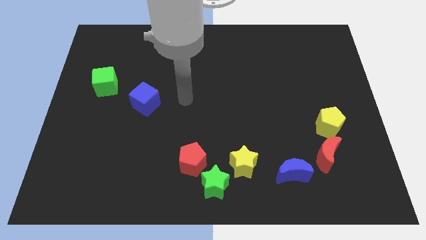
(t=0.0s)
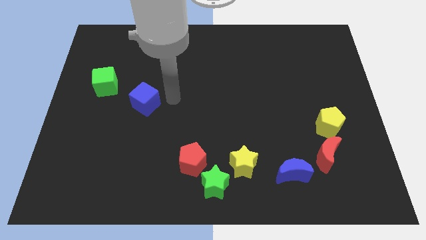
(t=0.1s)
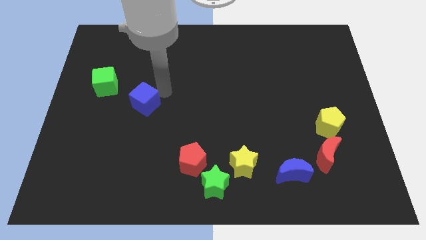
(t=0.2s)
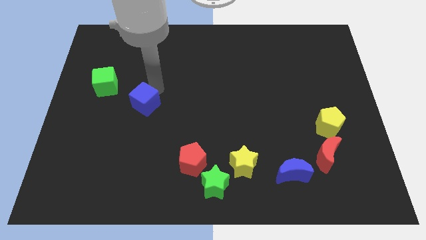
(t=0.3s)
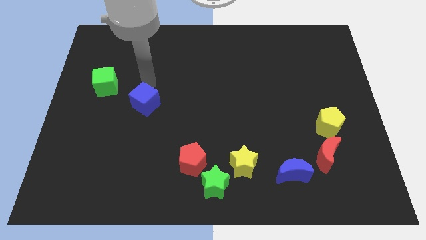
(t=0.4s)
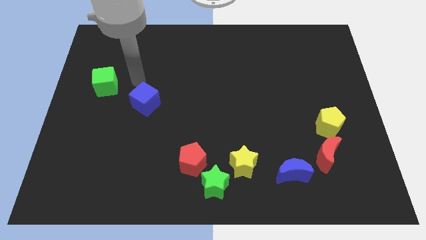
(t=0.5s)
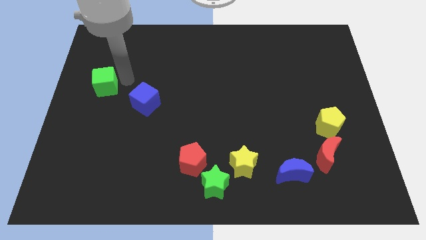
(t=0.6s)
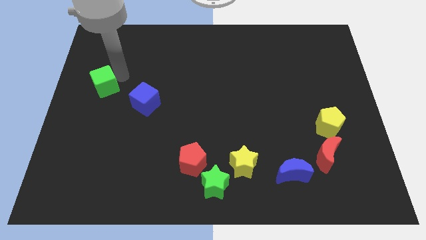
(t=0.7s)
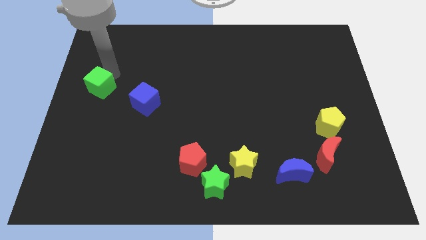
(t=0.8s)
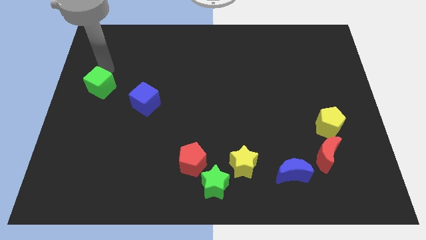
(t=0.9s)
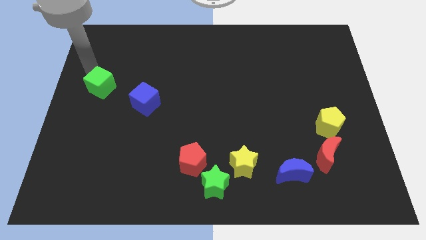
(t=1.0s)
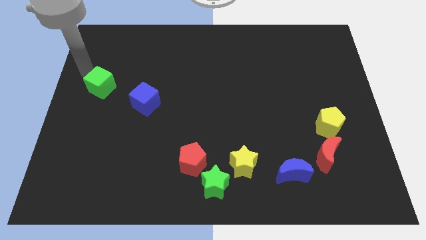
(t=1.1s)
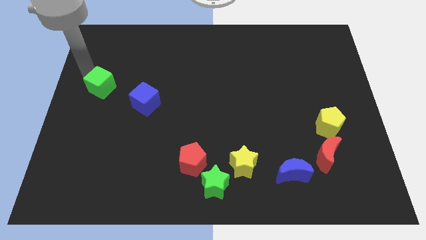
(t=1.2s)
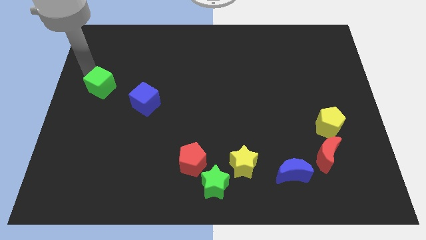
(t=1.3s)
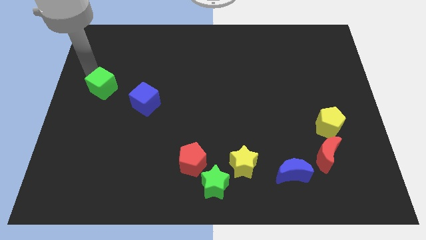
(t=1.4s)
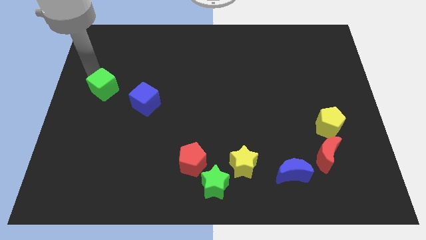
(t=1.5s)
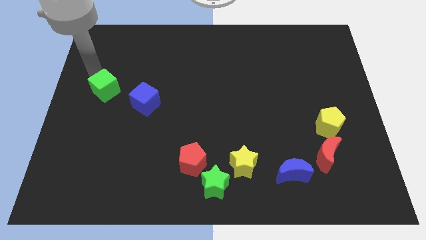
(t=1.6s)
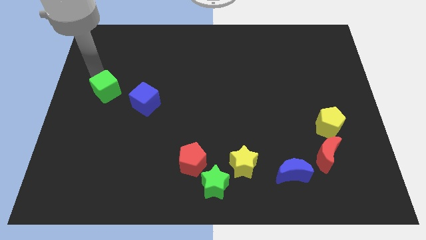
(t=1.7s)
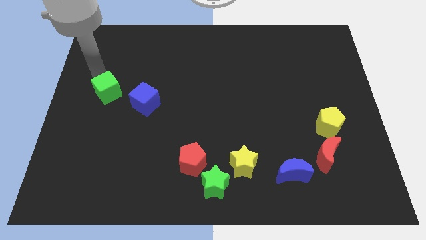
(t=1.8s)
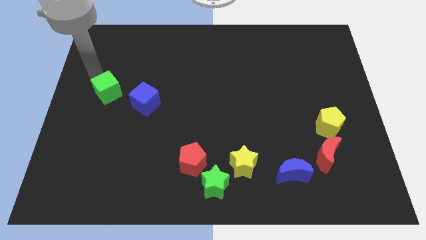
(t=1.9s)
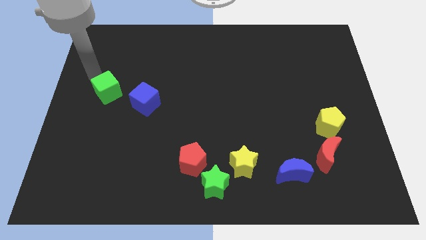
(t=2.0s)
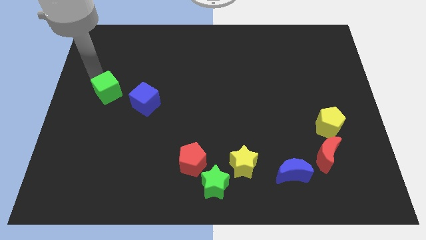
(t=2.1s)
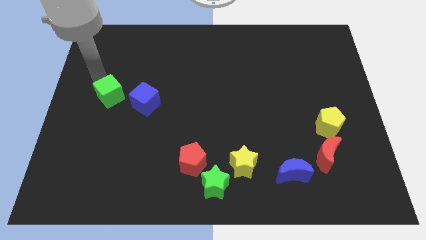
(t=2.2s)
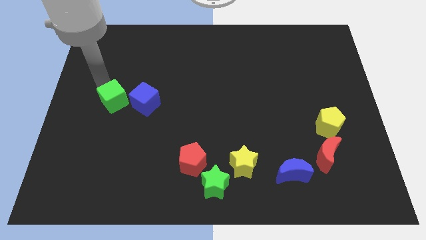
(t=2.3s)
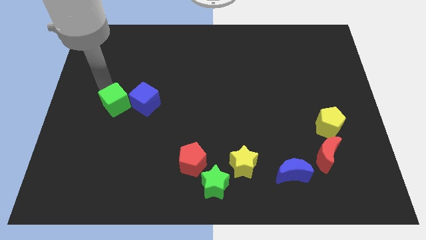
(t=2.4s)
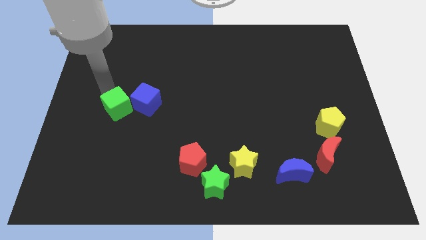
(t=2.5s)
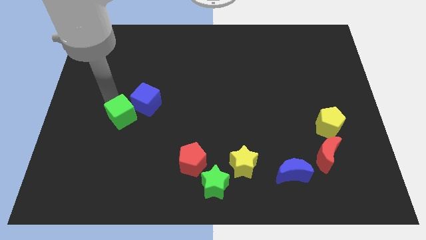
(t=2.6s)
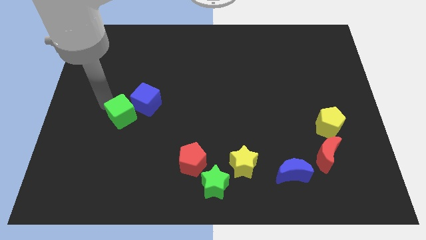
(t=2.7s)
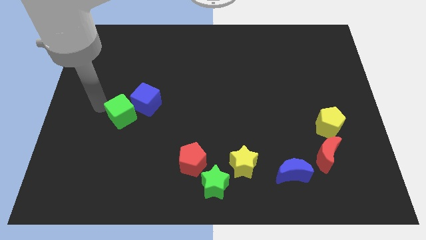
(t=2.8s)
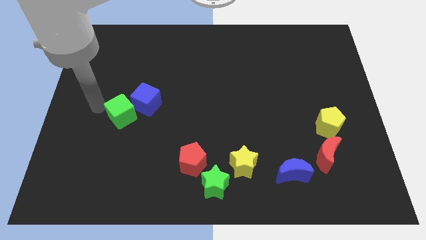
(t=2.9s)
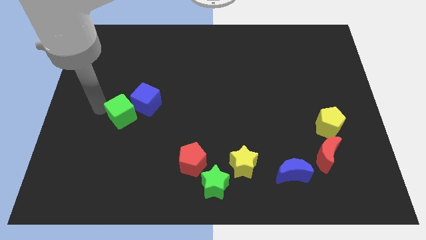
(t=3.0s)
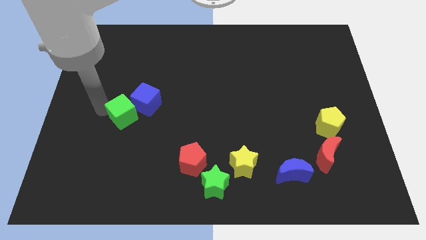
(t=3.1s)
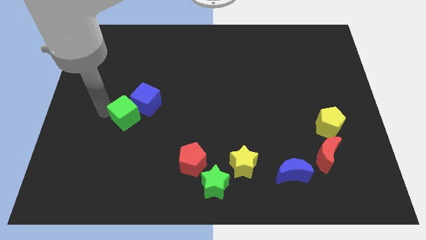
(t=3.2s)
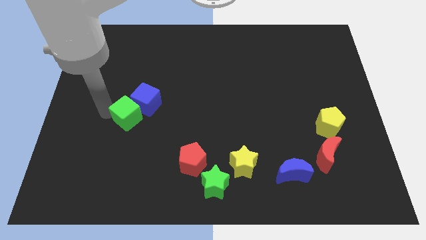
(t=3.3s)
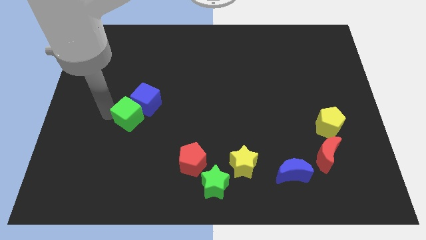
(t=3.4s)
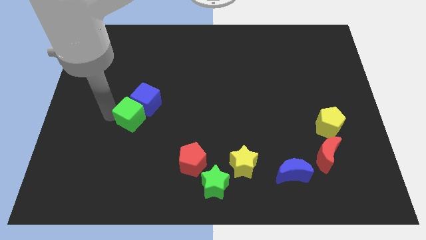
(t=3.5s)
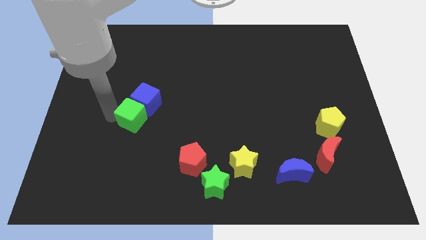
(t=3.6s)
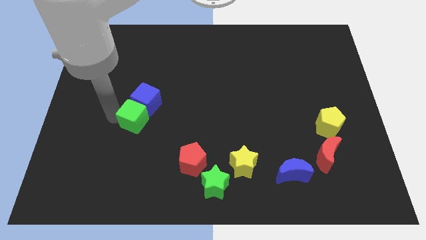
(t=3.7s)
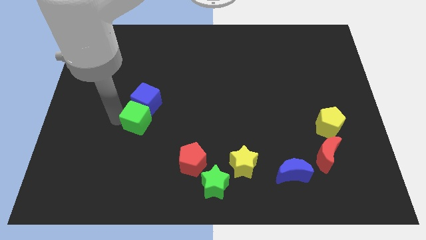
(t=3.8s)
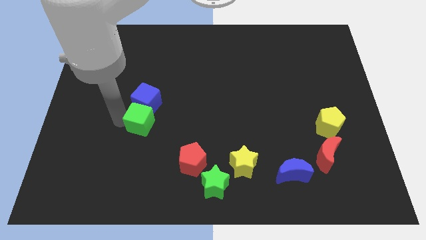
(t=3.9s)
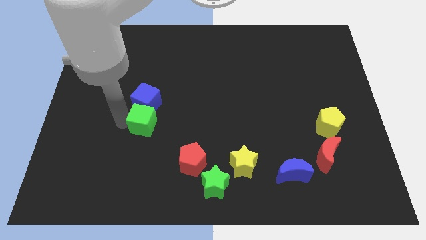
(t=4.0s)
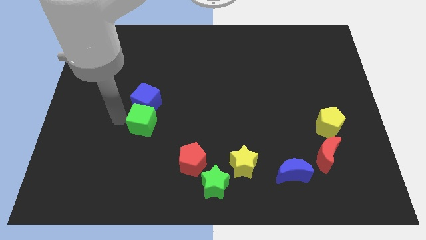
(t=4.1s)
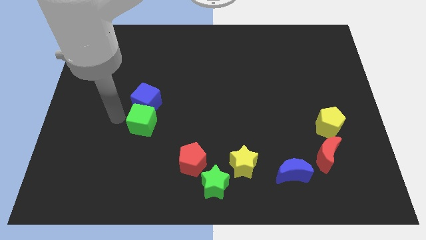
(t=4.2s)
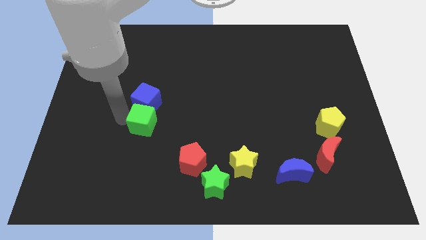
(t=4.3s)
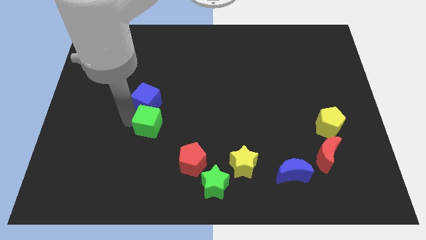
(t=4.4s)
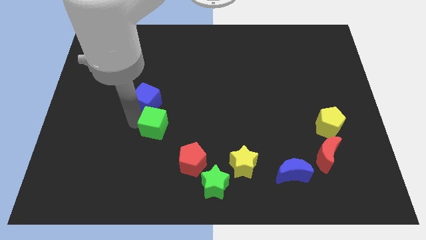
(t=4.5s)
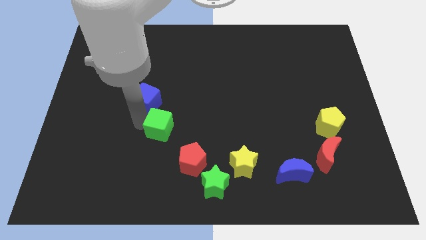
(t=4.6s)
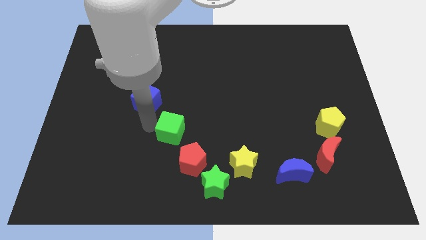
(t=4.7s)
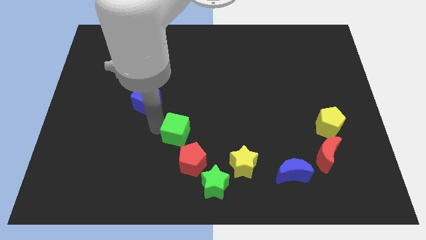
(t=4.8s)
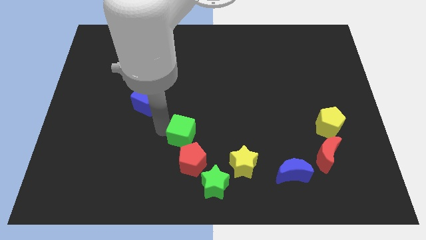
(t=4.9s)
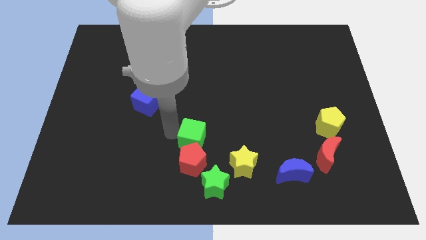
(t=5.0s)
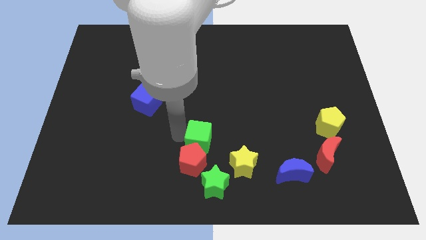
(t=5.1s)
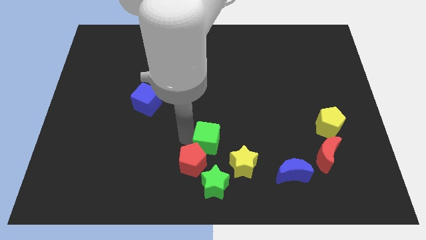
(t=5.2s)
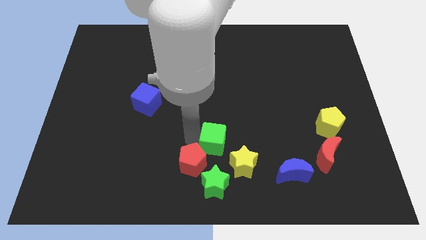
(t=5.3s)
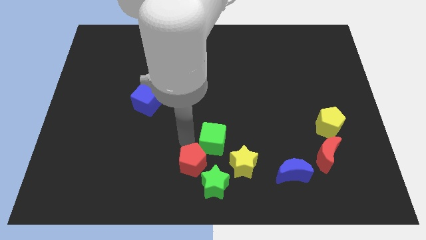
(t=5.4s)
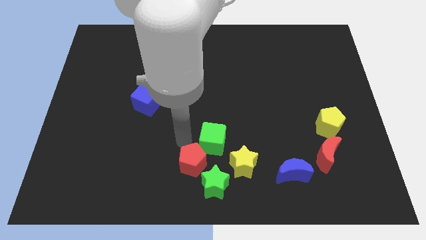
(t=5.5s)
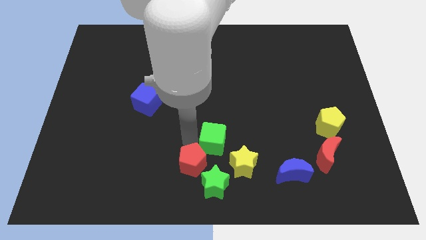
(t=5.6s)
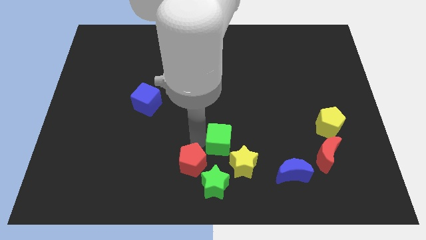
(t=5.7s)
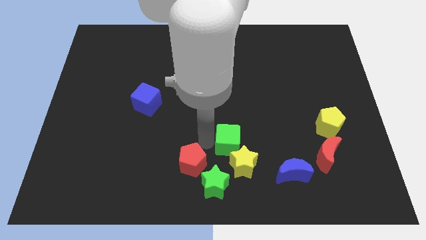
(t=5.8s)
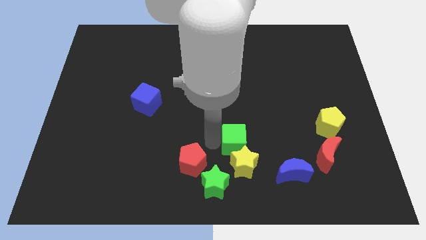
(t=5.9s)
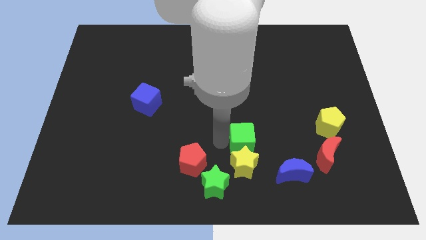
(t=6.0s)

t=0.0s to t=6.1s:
slide the green cube diagonally up and to the left of the blue moon

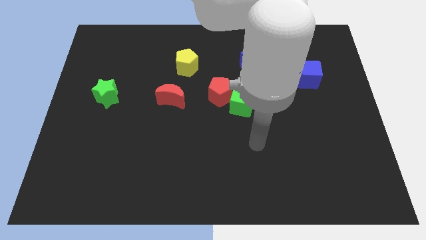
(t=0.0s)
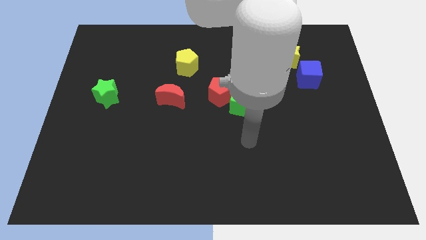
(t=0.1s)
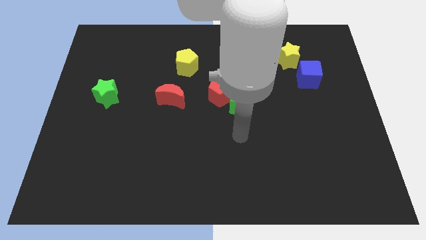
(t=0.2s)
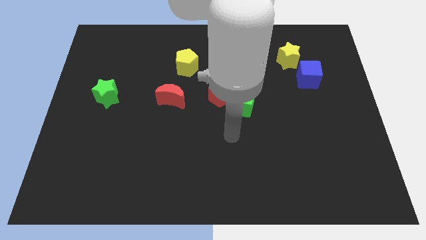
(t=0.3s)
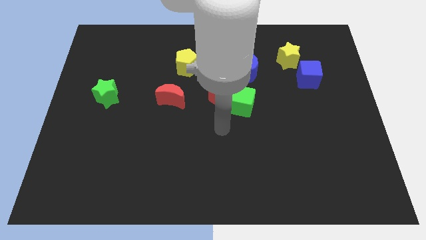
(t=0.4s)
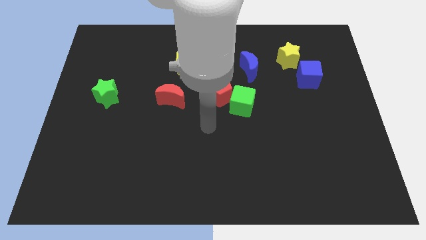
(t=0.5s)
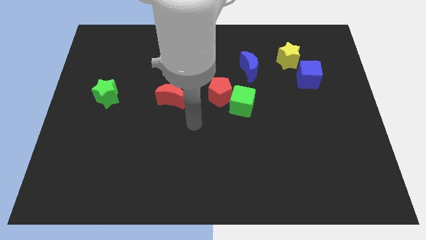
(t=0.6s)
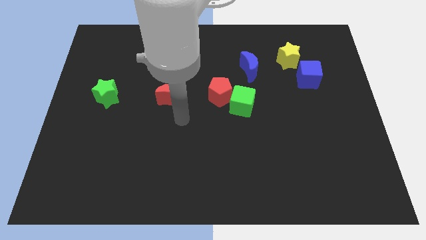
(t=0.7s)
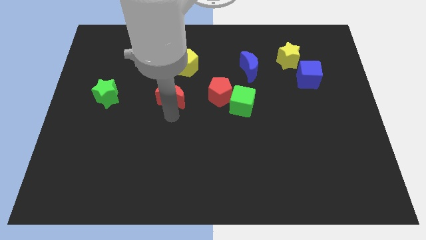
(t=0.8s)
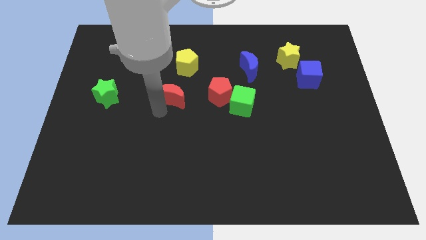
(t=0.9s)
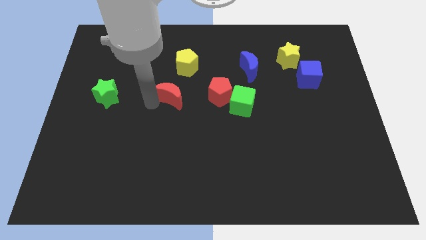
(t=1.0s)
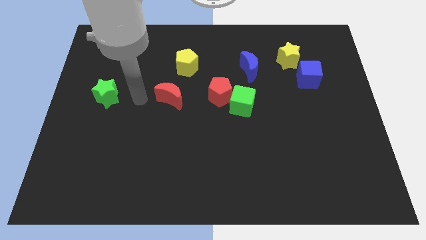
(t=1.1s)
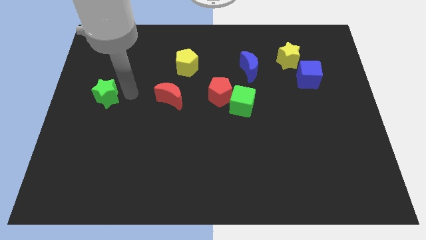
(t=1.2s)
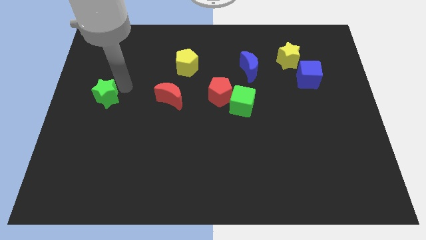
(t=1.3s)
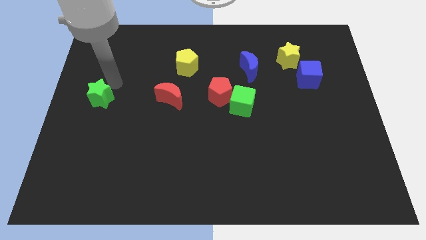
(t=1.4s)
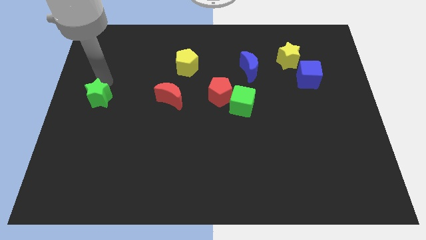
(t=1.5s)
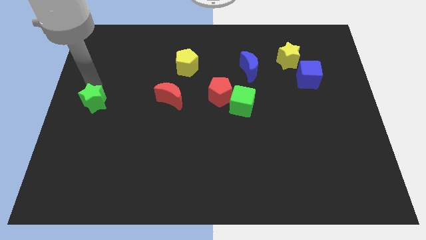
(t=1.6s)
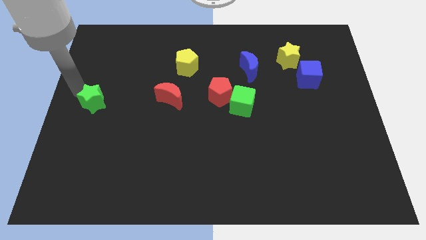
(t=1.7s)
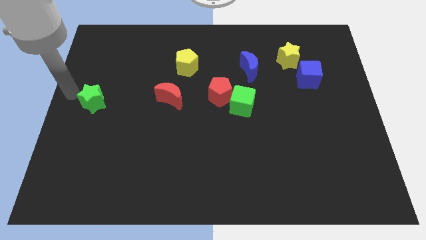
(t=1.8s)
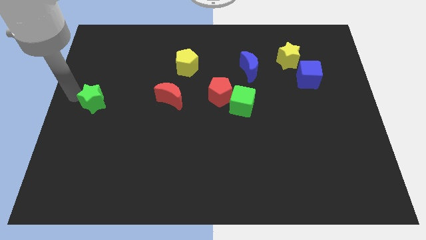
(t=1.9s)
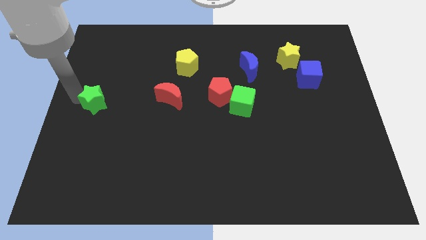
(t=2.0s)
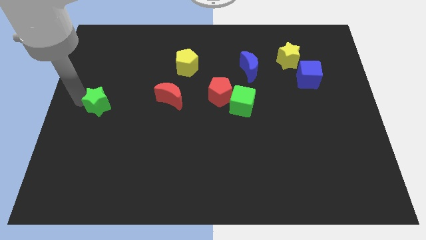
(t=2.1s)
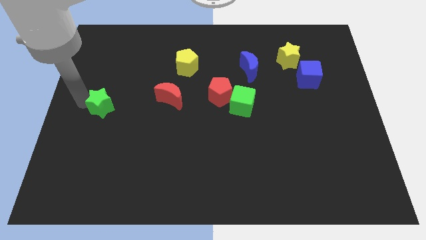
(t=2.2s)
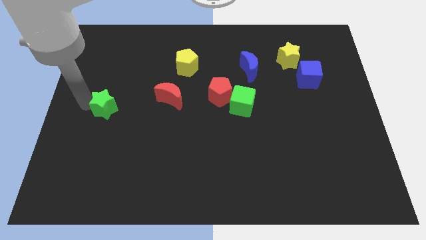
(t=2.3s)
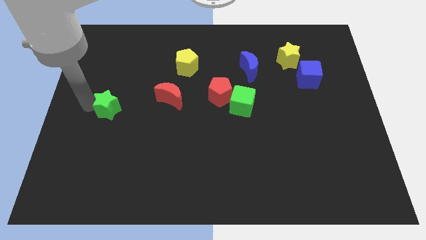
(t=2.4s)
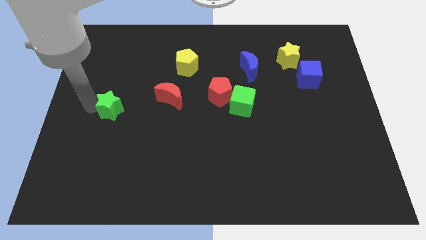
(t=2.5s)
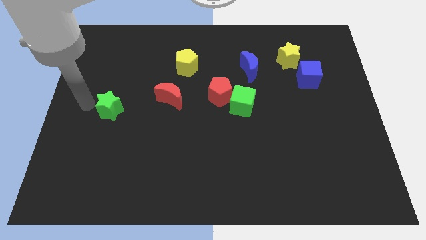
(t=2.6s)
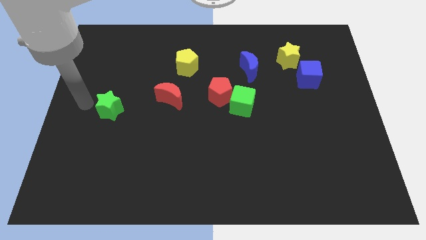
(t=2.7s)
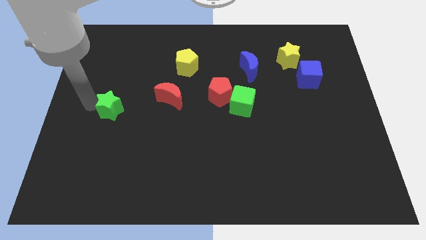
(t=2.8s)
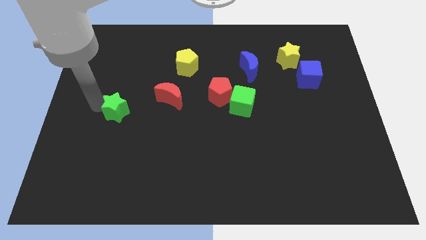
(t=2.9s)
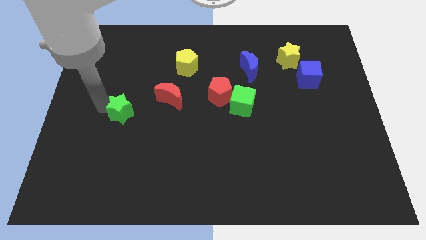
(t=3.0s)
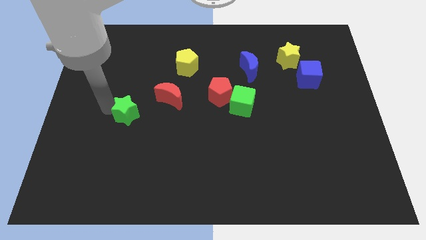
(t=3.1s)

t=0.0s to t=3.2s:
slide the green star diagonally down and to the left of the red moon
